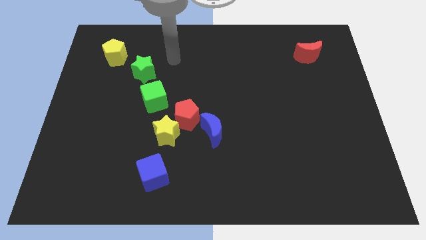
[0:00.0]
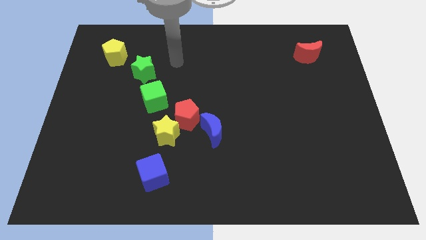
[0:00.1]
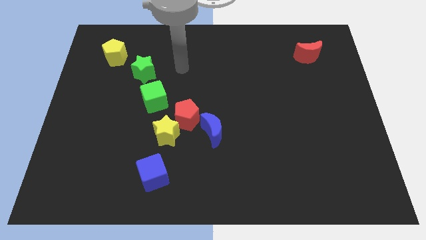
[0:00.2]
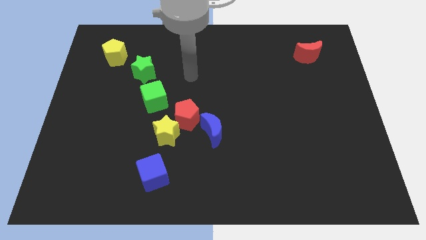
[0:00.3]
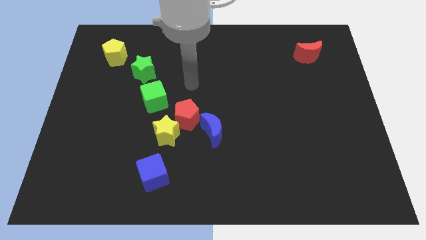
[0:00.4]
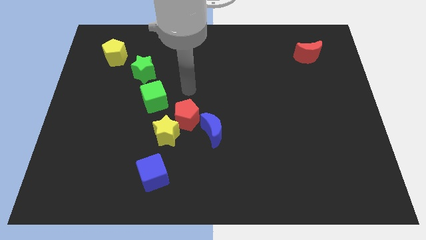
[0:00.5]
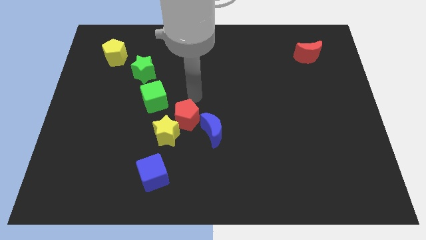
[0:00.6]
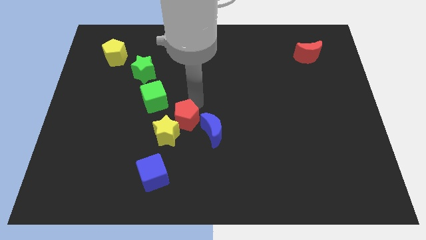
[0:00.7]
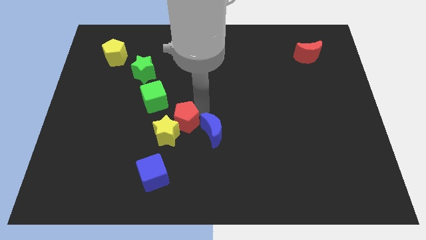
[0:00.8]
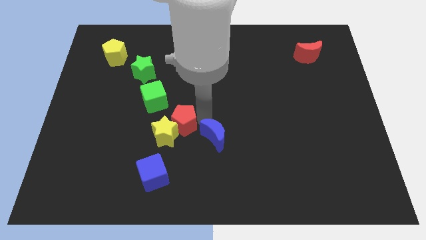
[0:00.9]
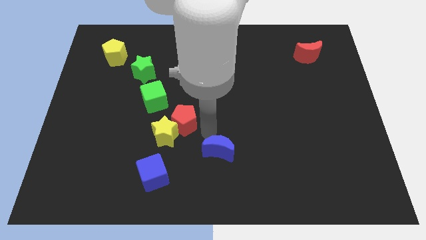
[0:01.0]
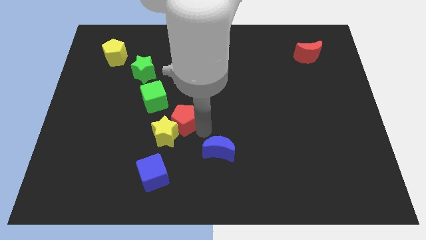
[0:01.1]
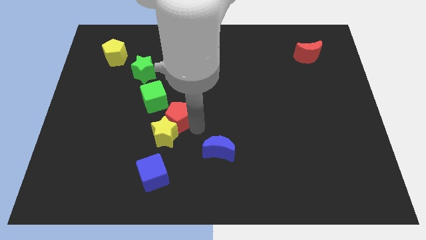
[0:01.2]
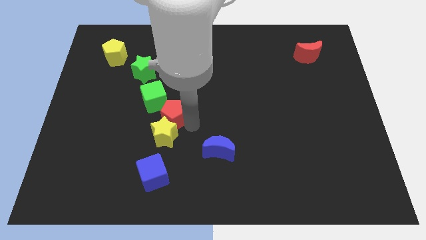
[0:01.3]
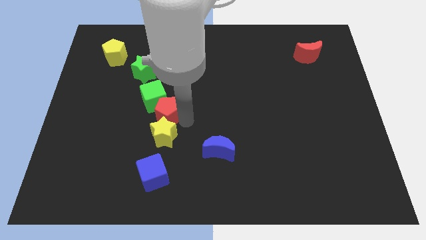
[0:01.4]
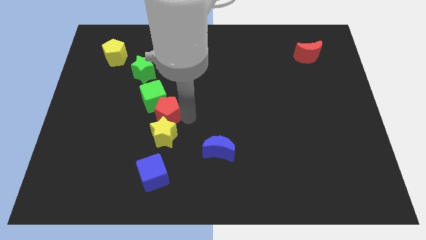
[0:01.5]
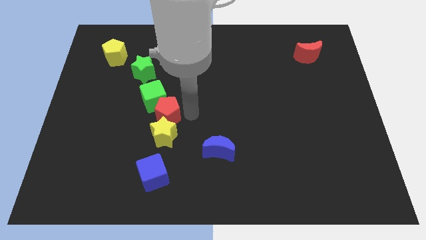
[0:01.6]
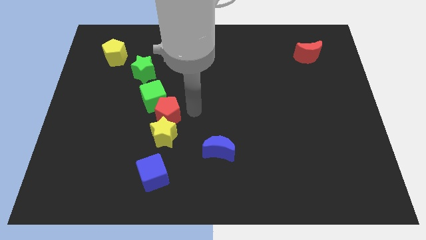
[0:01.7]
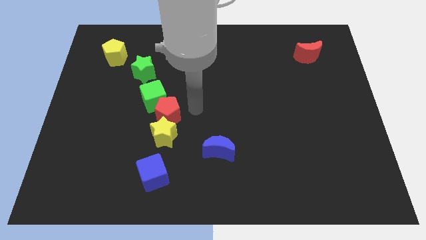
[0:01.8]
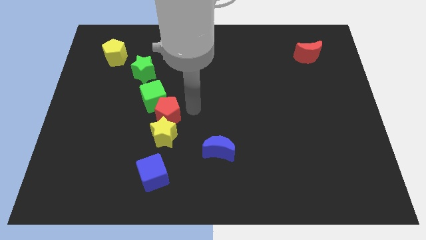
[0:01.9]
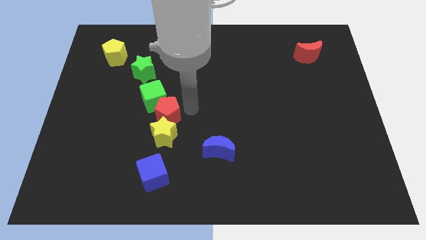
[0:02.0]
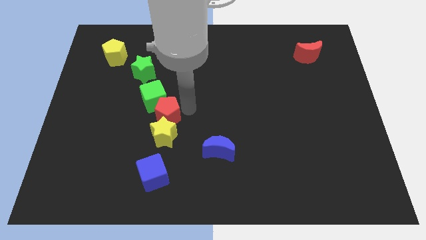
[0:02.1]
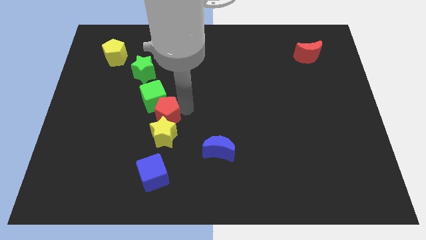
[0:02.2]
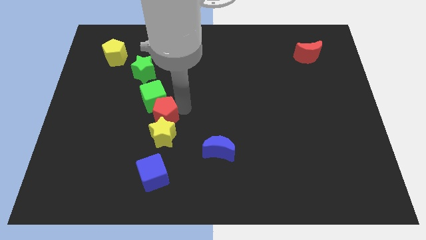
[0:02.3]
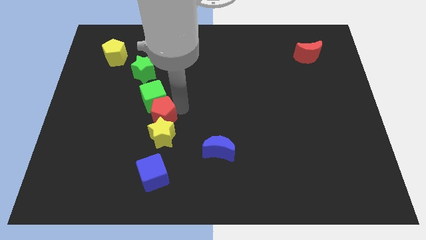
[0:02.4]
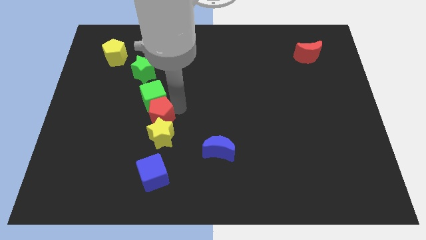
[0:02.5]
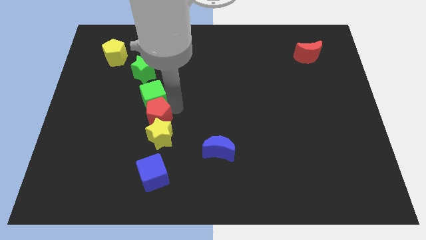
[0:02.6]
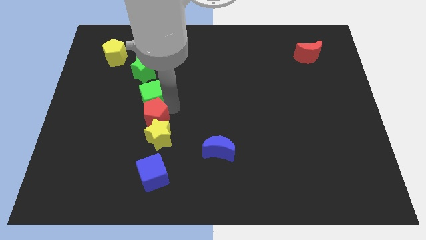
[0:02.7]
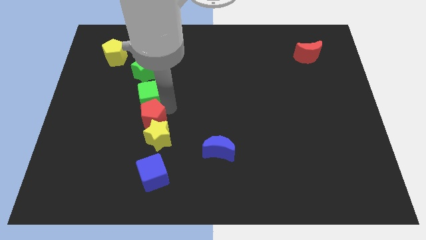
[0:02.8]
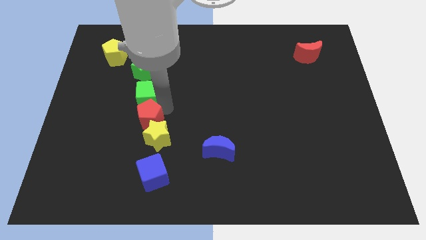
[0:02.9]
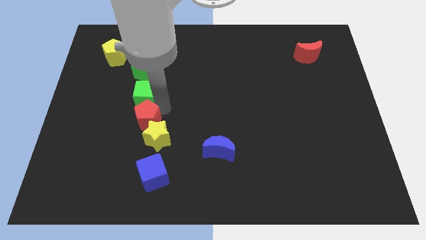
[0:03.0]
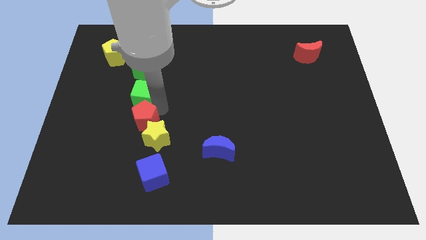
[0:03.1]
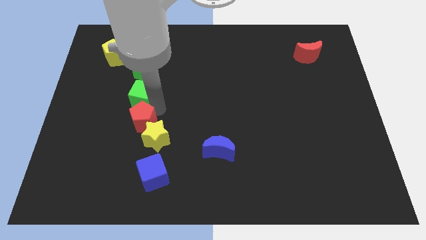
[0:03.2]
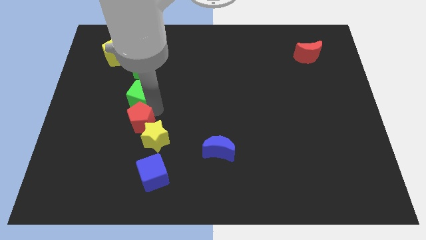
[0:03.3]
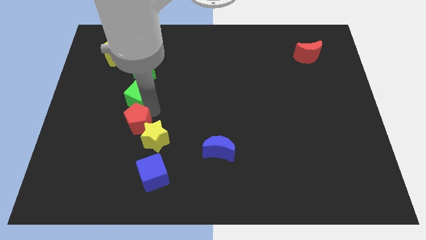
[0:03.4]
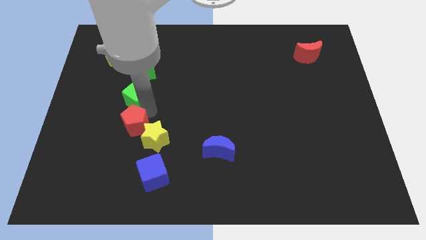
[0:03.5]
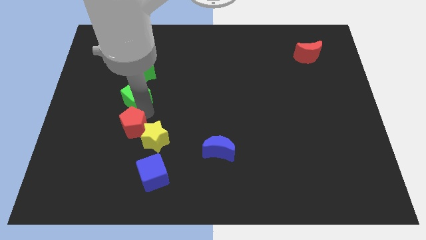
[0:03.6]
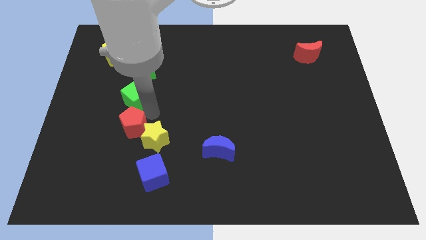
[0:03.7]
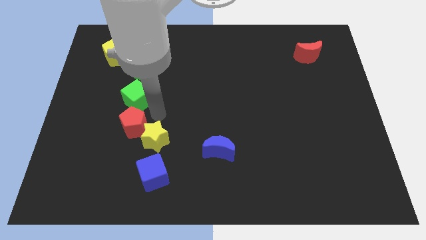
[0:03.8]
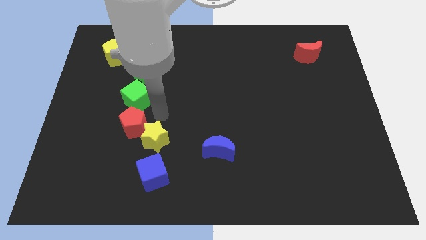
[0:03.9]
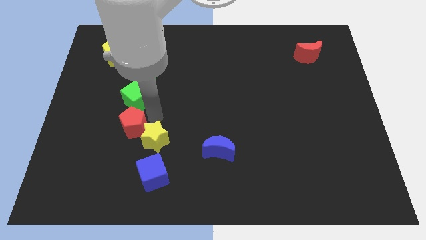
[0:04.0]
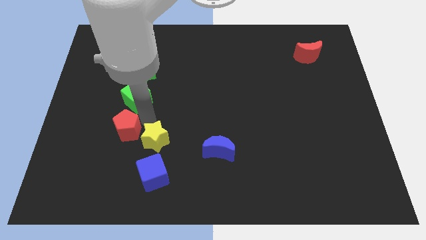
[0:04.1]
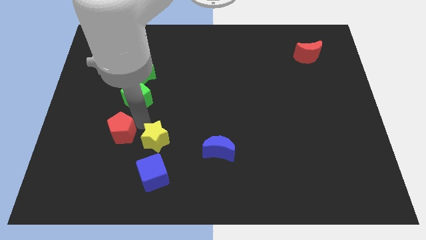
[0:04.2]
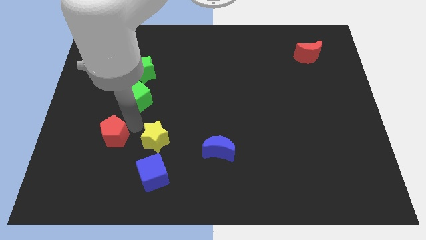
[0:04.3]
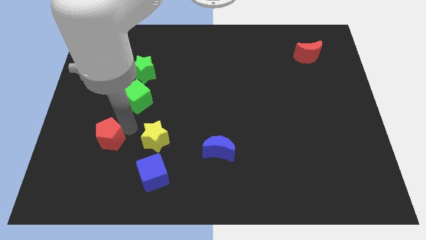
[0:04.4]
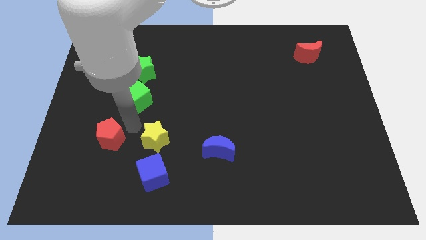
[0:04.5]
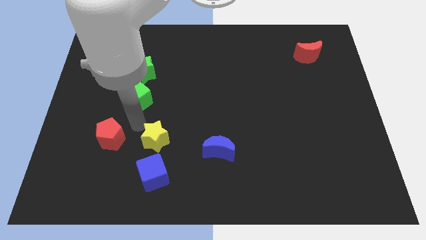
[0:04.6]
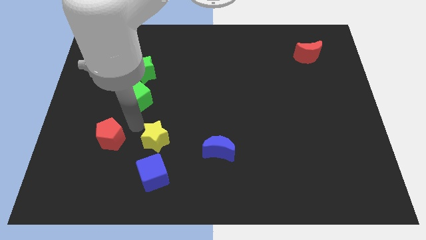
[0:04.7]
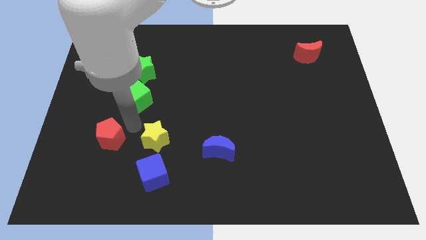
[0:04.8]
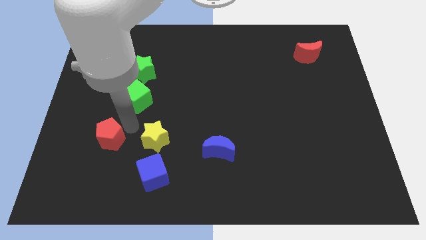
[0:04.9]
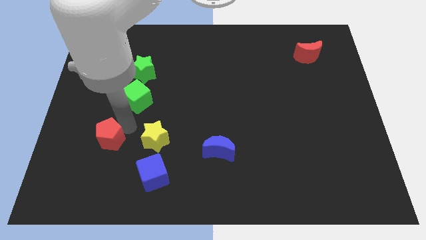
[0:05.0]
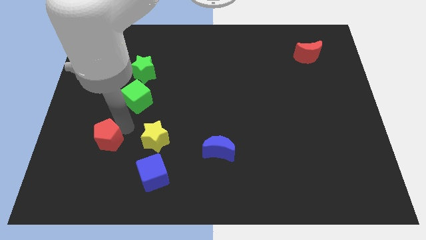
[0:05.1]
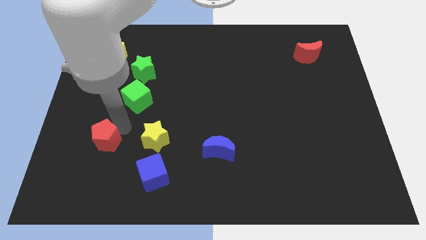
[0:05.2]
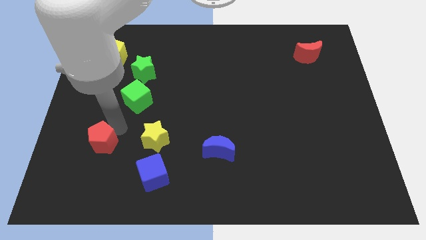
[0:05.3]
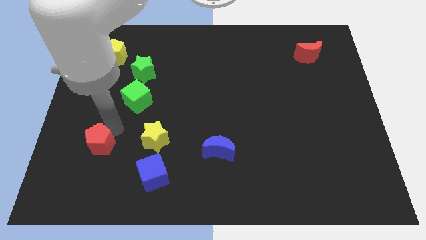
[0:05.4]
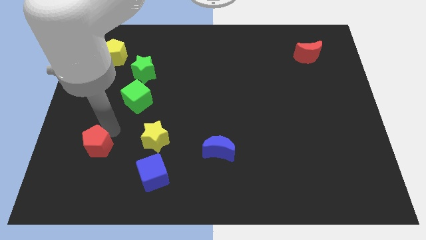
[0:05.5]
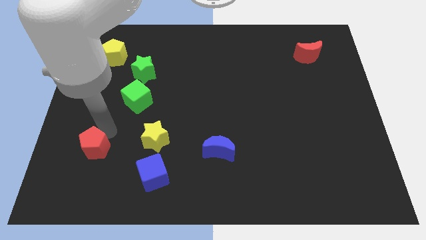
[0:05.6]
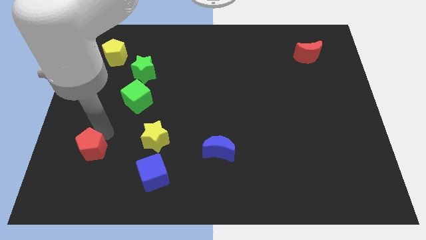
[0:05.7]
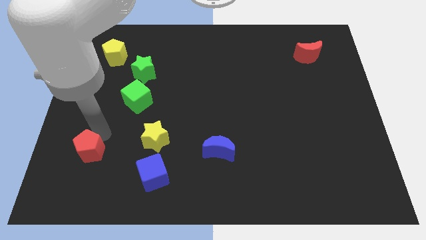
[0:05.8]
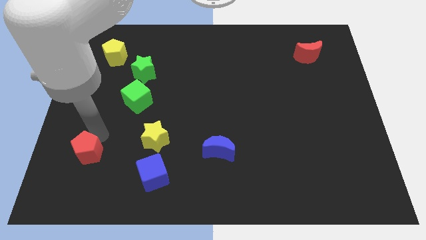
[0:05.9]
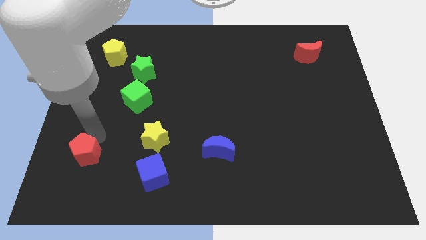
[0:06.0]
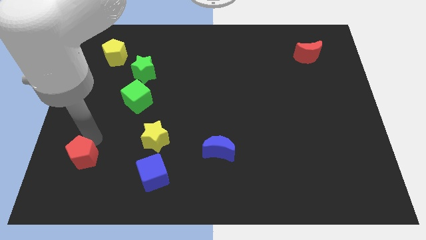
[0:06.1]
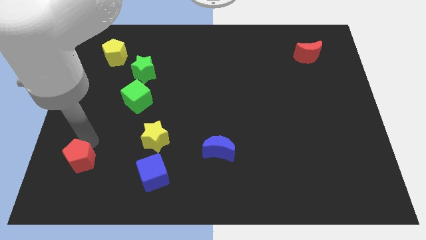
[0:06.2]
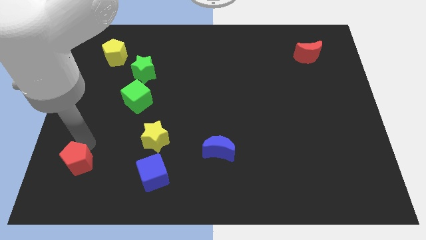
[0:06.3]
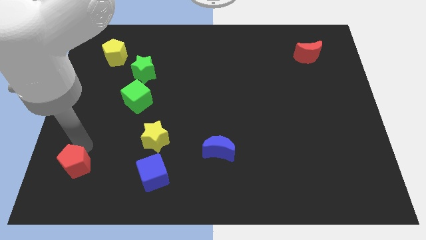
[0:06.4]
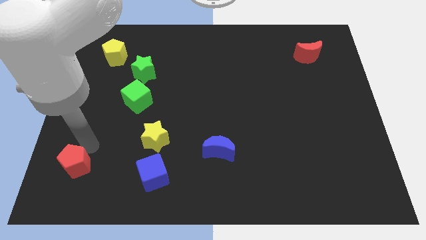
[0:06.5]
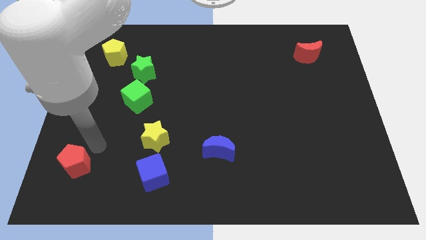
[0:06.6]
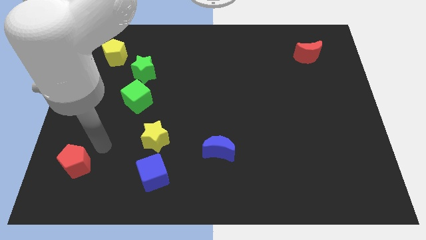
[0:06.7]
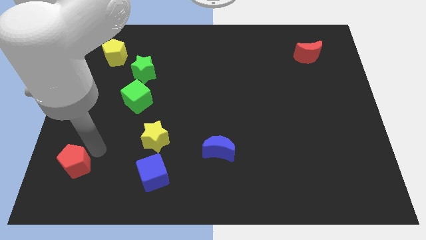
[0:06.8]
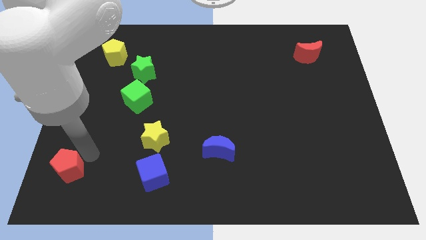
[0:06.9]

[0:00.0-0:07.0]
slide the red pentagon to the bottom left corner
